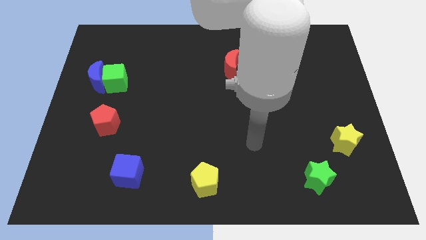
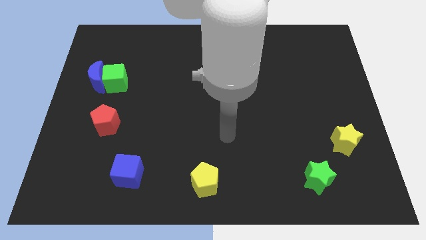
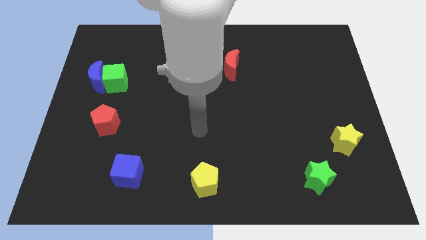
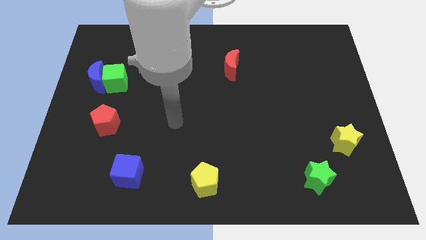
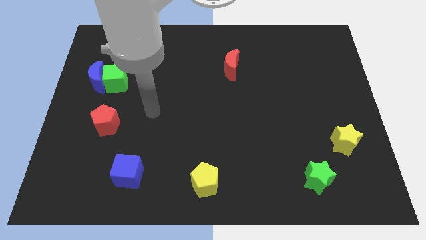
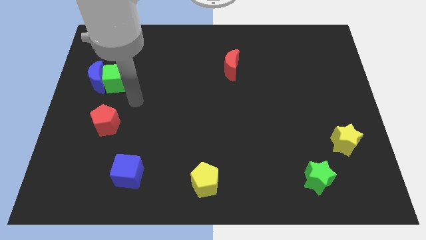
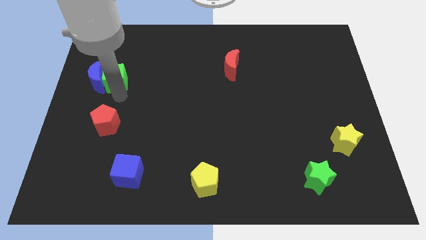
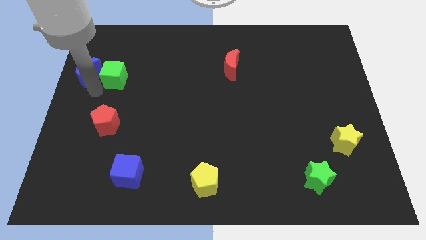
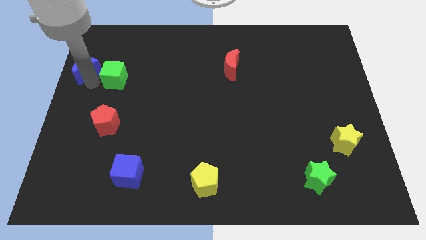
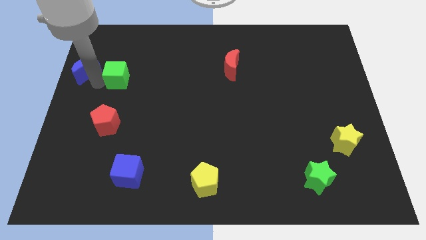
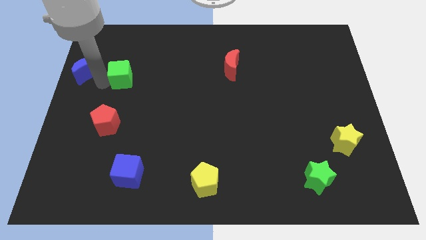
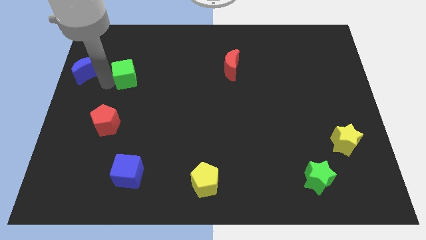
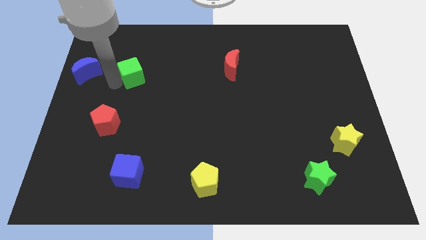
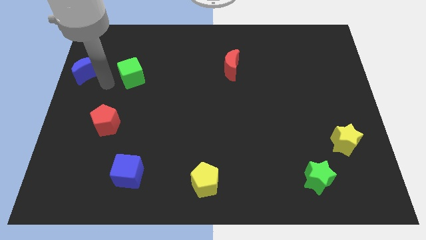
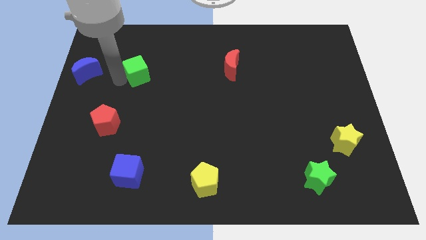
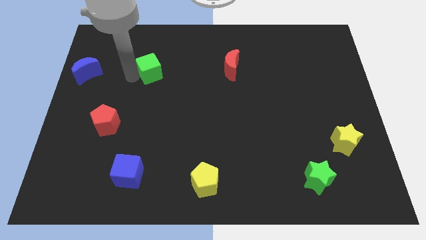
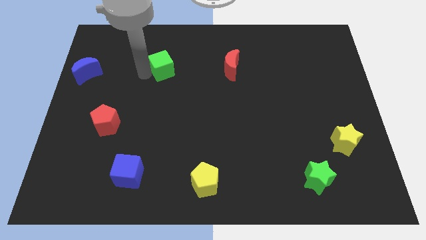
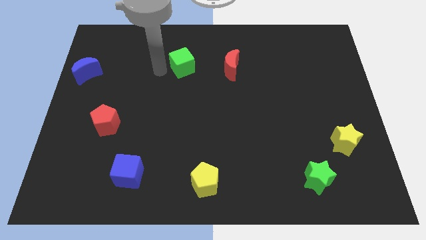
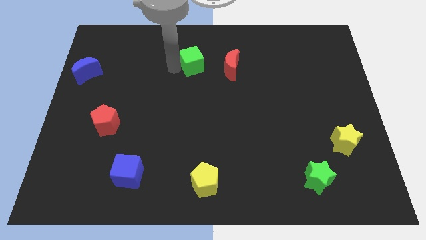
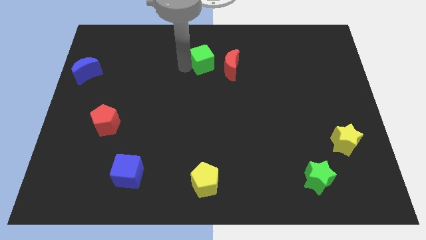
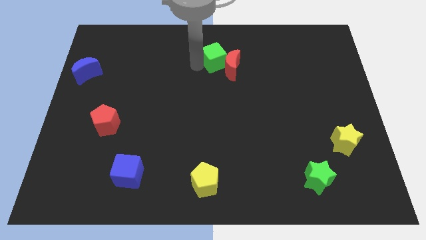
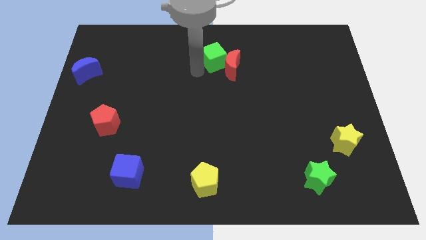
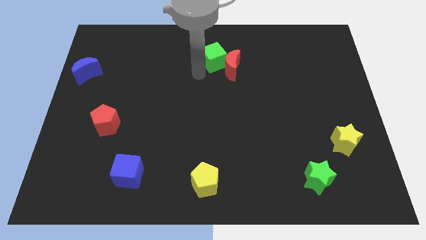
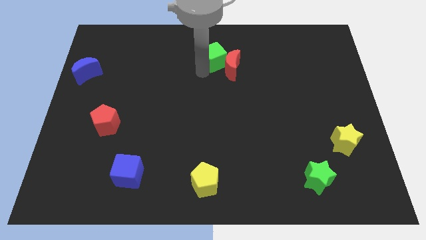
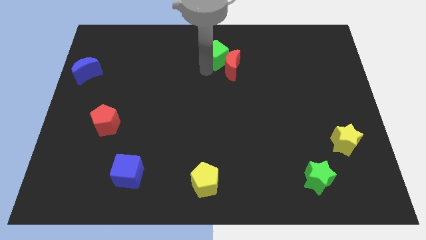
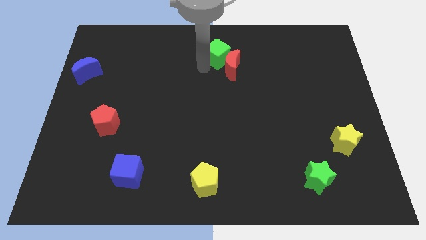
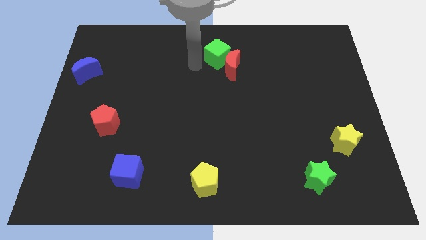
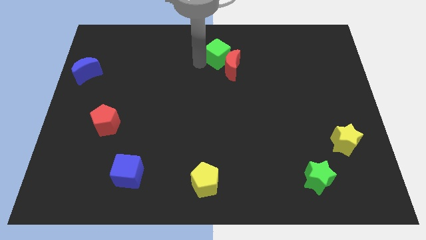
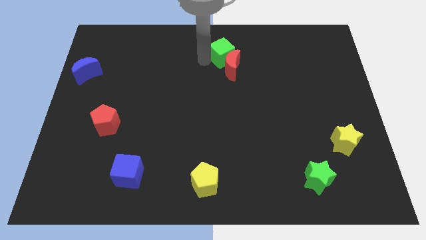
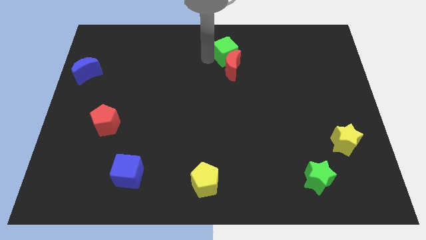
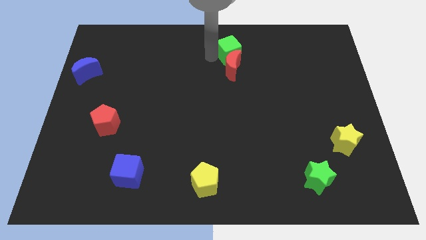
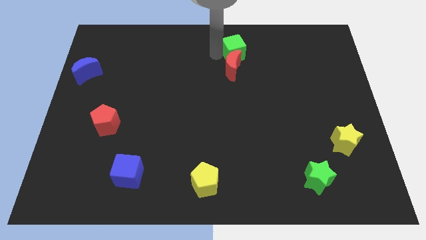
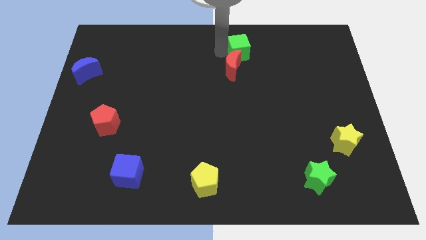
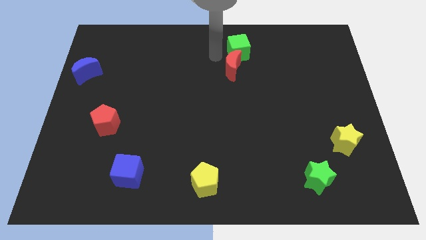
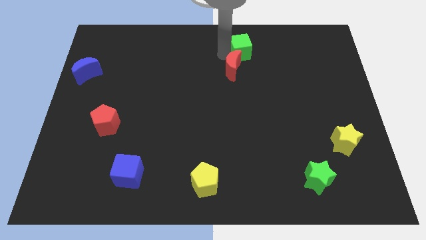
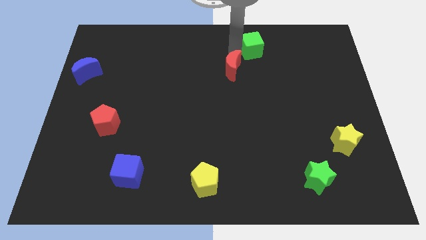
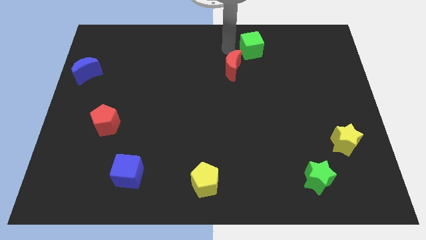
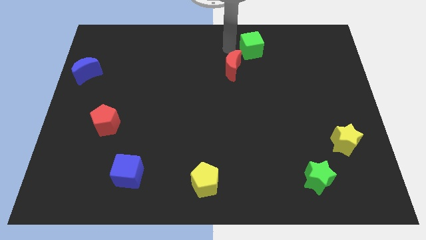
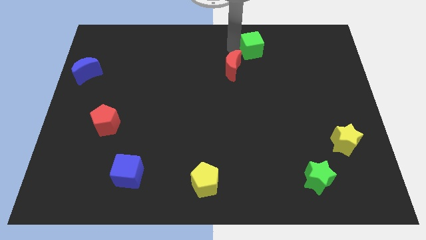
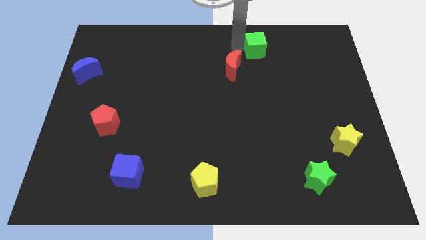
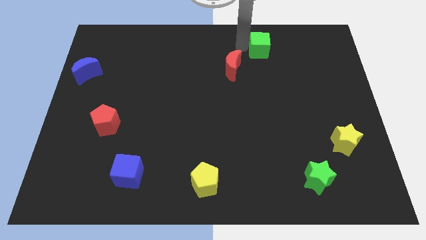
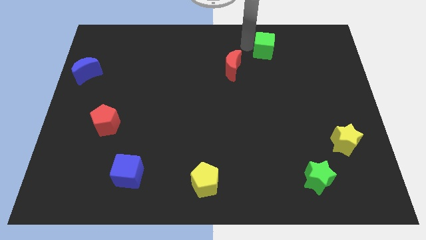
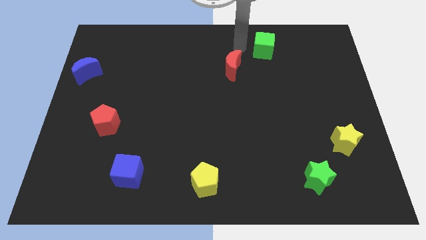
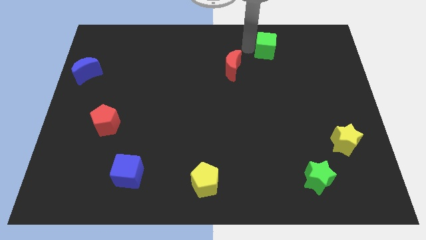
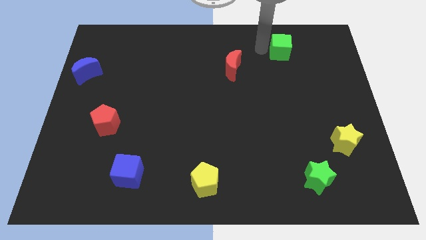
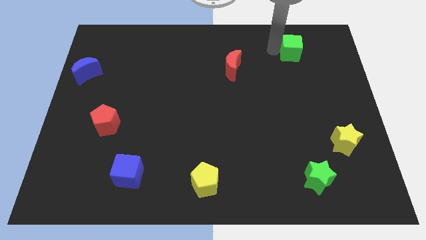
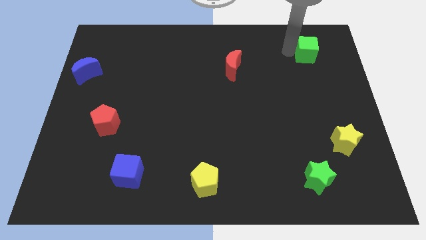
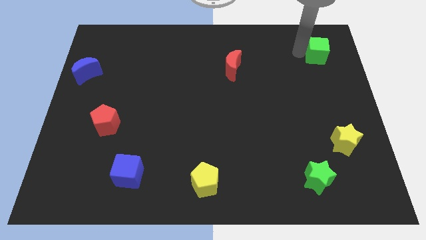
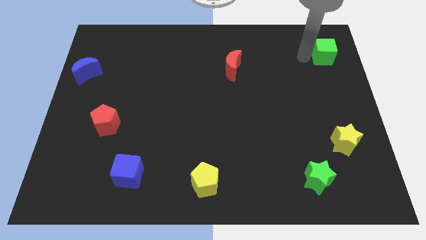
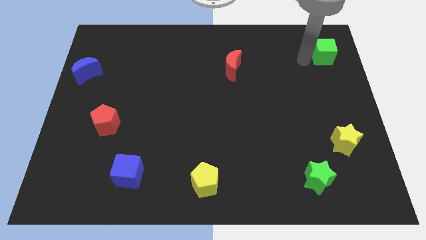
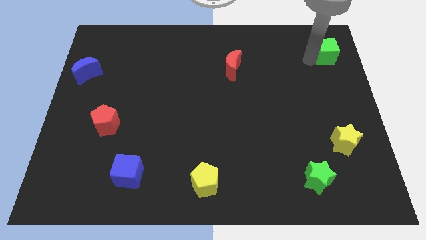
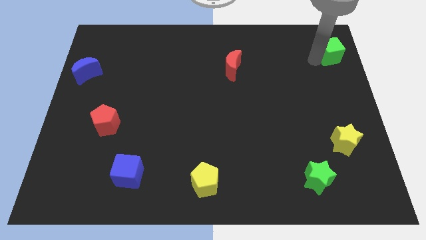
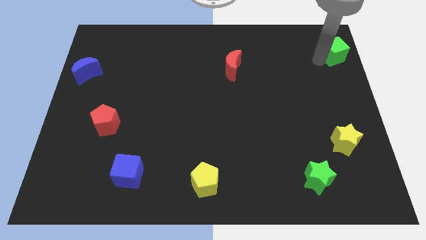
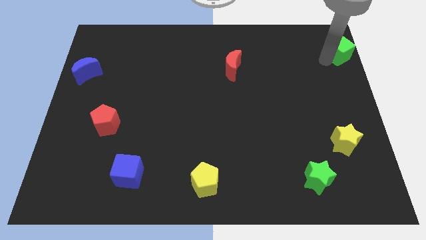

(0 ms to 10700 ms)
slide the green cube to the top right

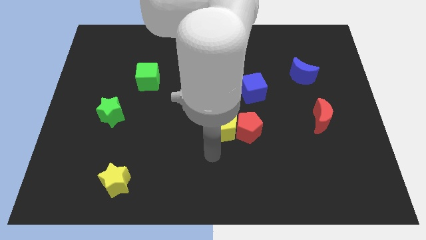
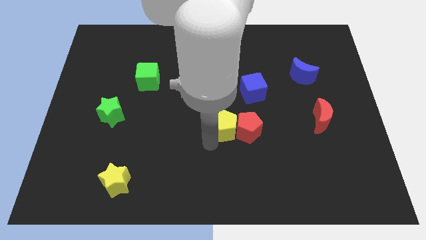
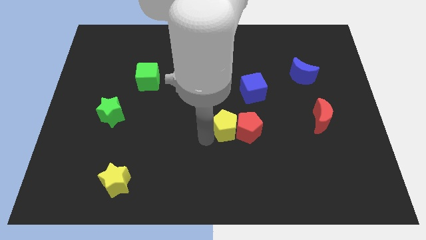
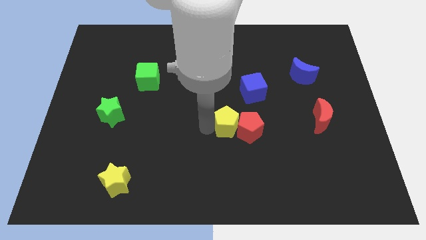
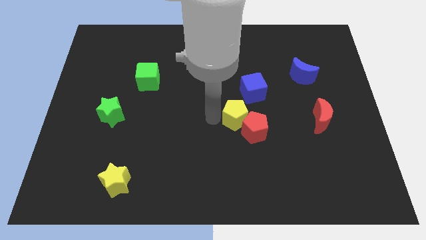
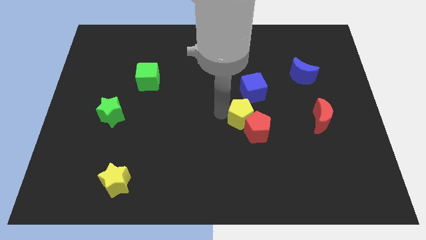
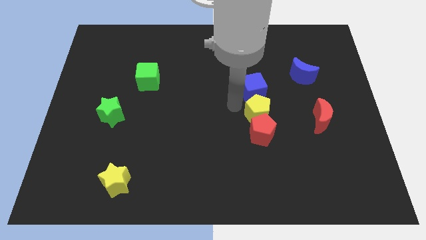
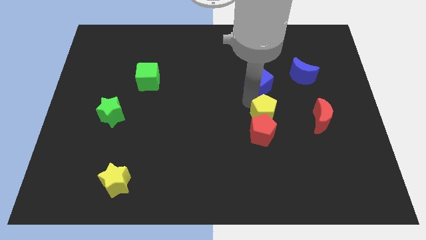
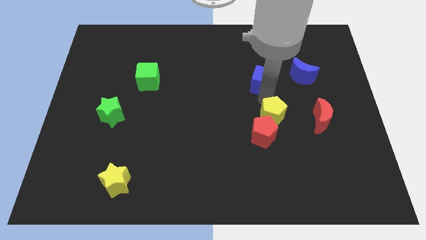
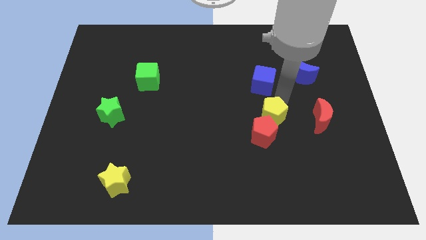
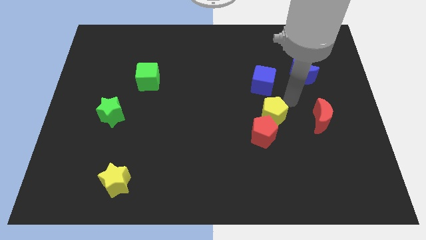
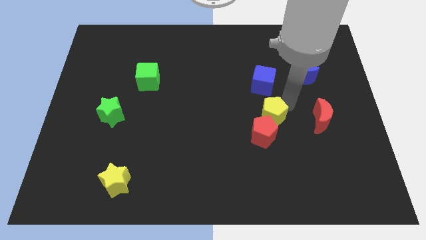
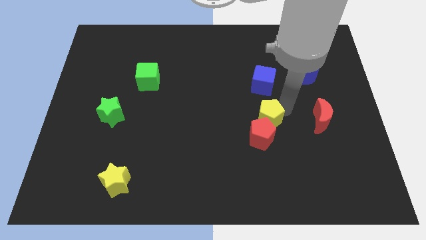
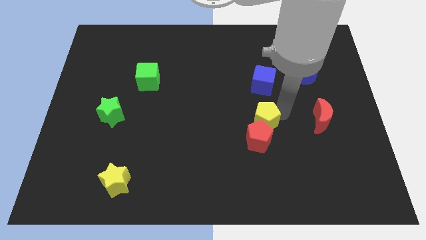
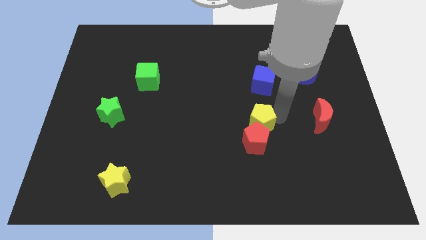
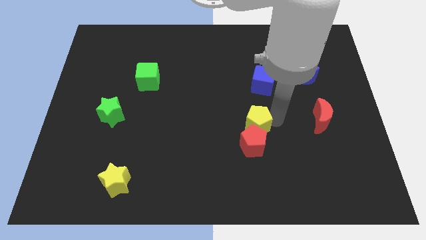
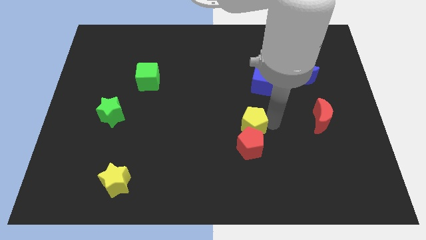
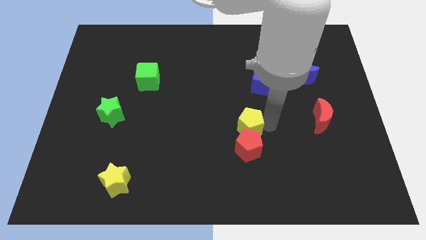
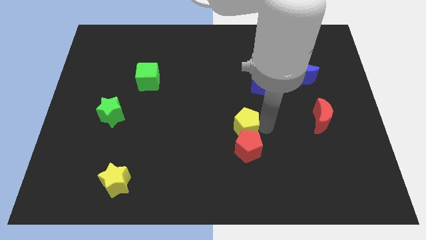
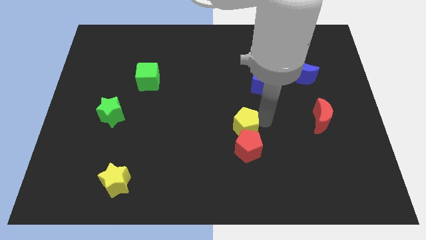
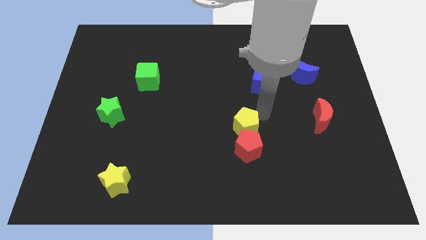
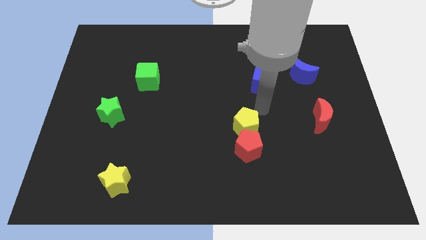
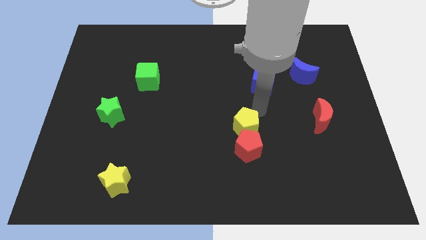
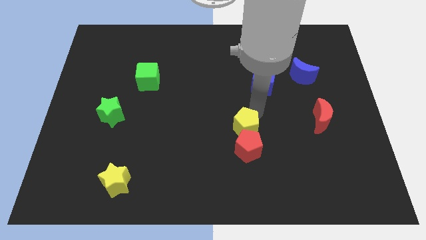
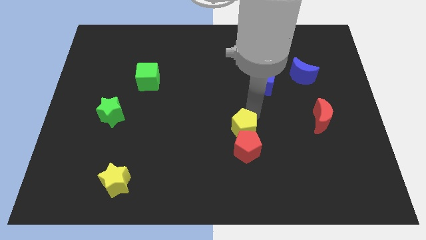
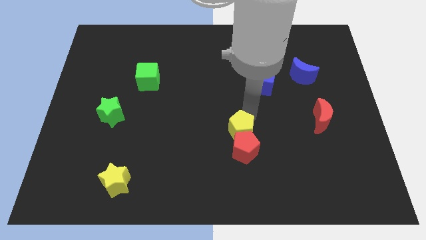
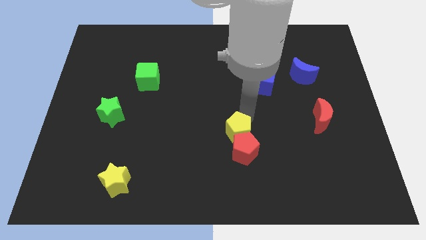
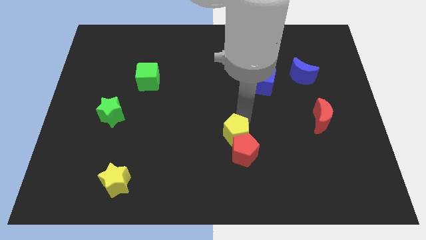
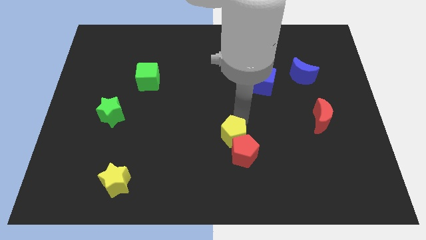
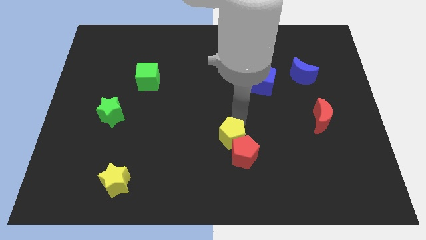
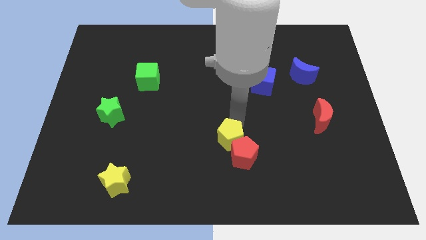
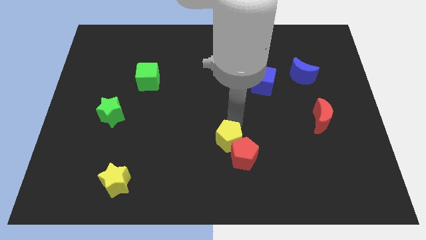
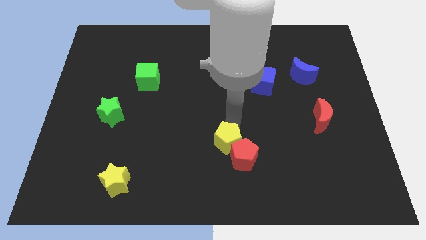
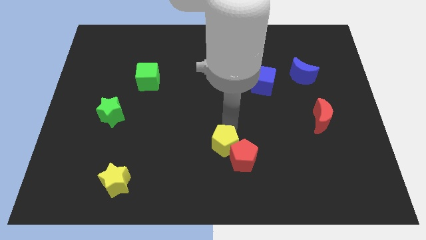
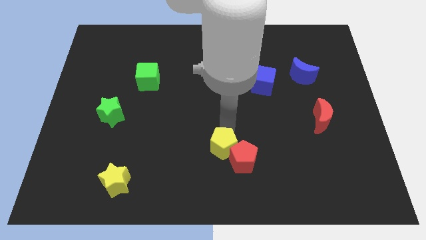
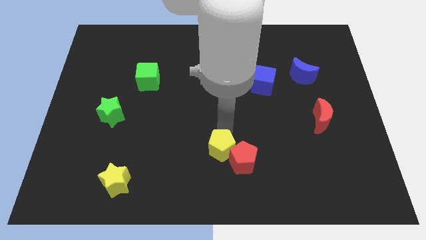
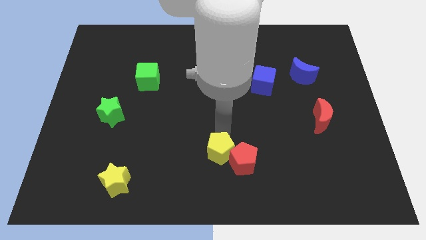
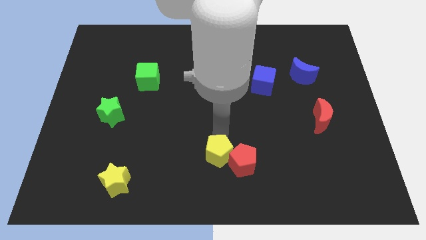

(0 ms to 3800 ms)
slide the yellow pentagon to the bottom
